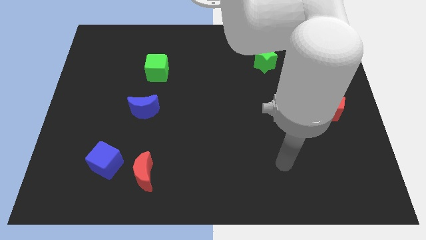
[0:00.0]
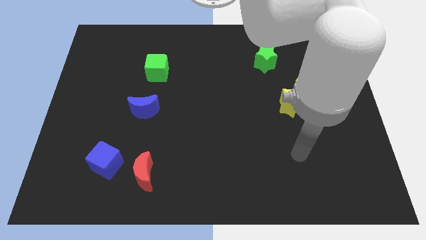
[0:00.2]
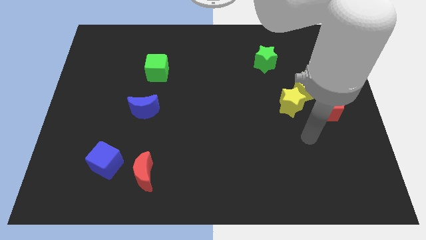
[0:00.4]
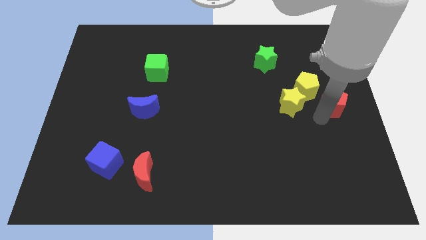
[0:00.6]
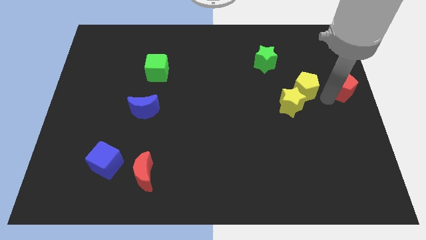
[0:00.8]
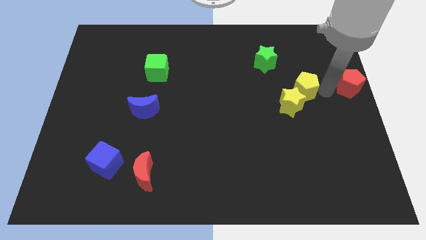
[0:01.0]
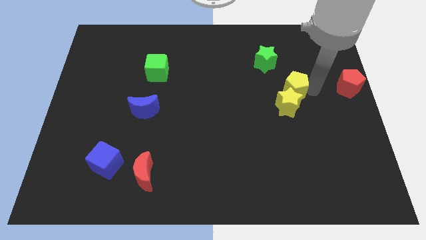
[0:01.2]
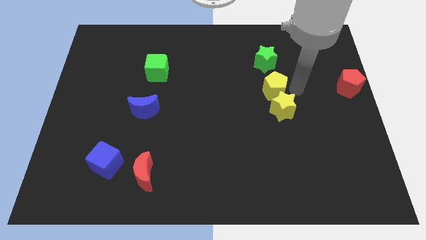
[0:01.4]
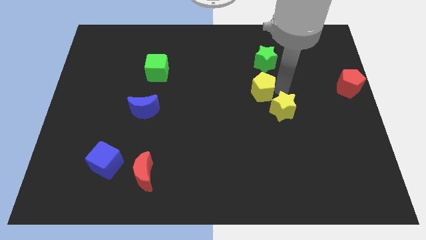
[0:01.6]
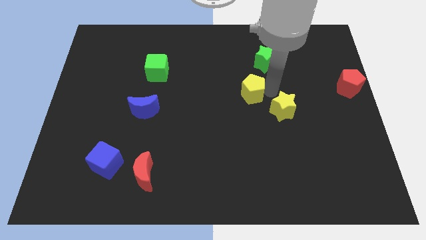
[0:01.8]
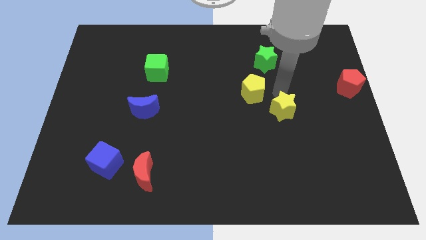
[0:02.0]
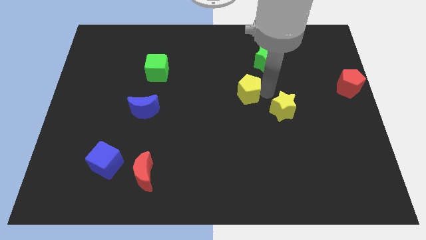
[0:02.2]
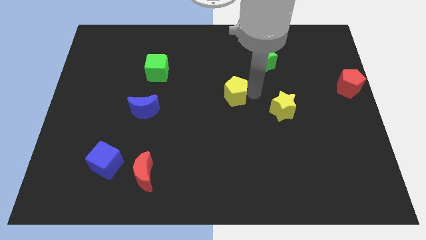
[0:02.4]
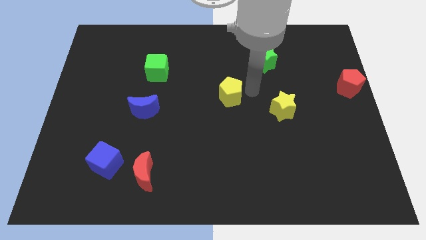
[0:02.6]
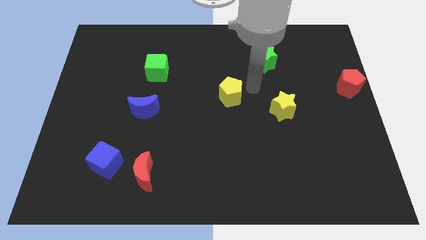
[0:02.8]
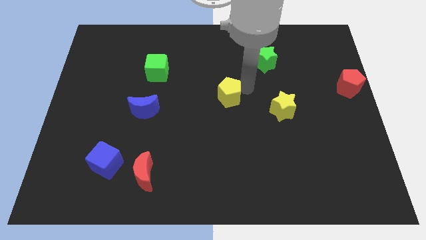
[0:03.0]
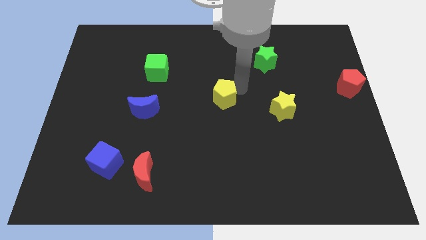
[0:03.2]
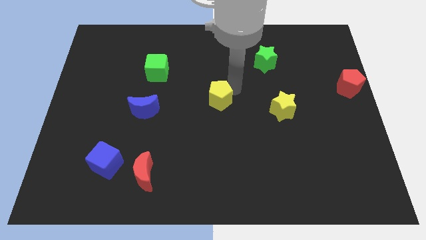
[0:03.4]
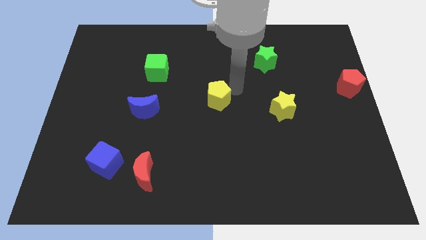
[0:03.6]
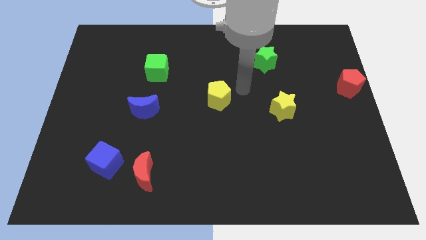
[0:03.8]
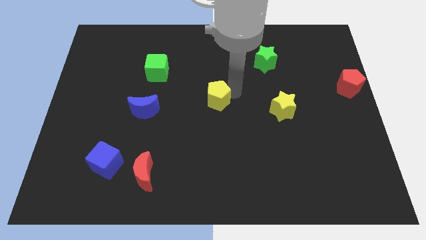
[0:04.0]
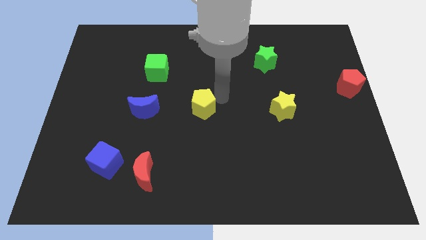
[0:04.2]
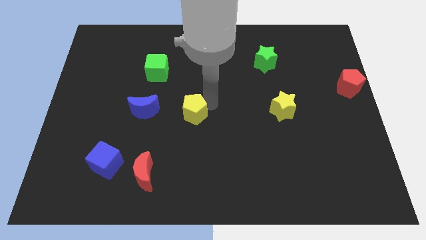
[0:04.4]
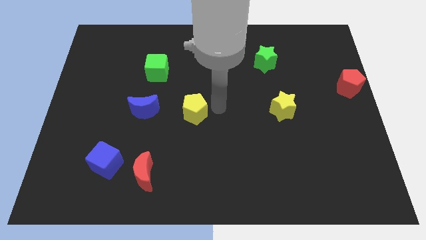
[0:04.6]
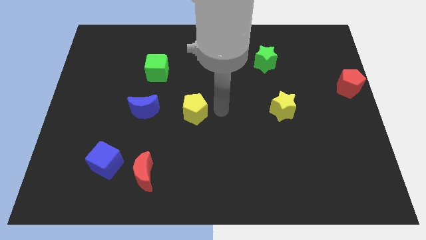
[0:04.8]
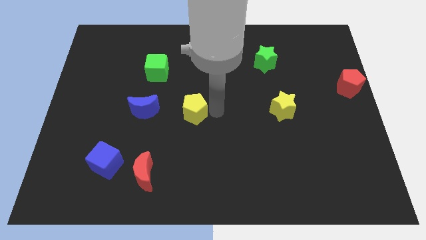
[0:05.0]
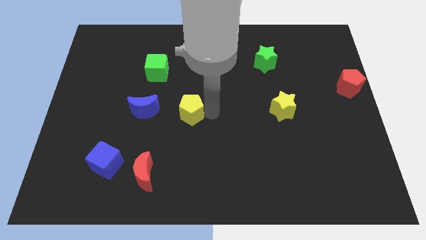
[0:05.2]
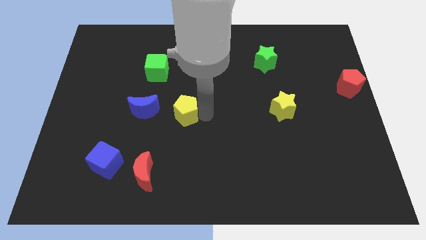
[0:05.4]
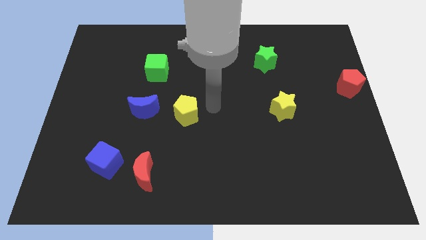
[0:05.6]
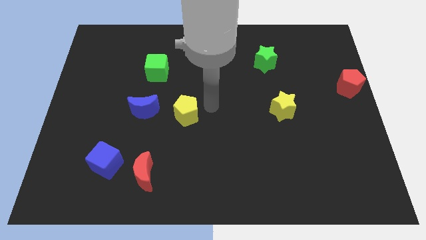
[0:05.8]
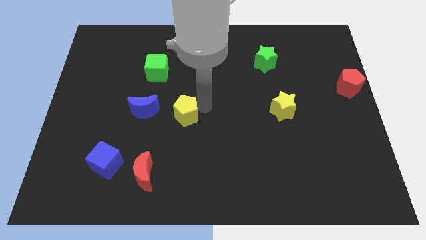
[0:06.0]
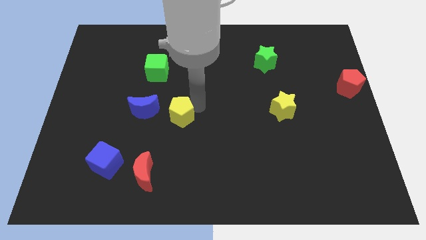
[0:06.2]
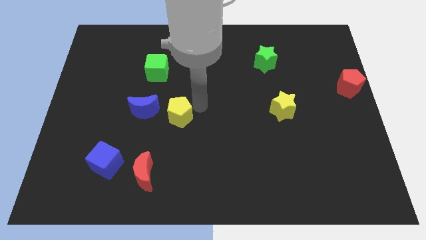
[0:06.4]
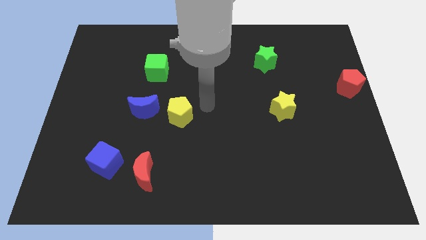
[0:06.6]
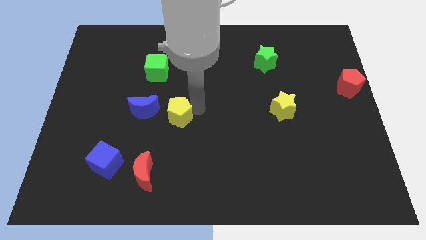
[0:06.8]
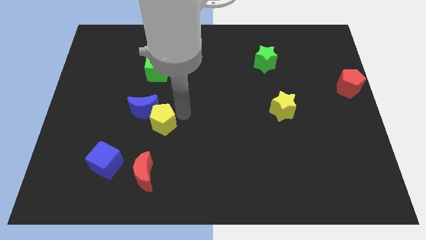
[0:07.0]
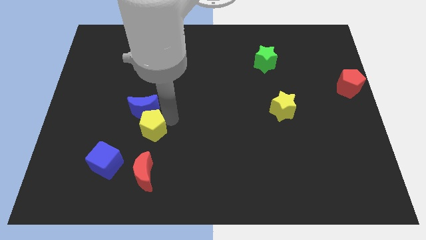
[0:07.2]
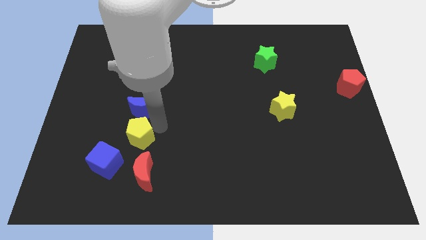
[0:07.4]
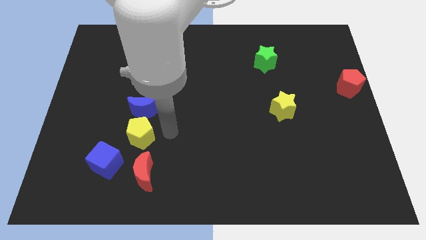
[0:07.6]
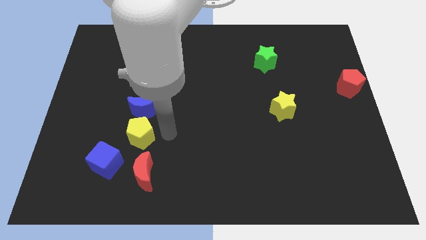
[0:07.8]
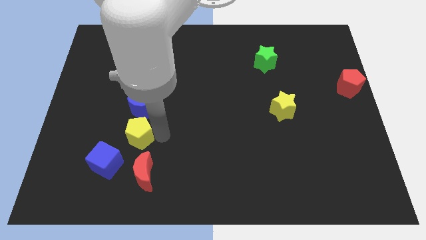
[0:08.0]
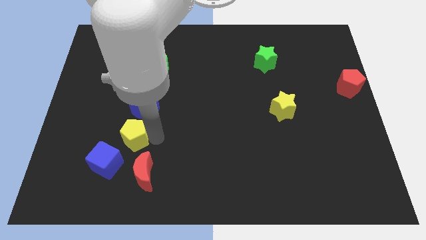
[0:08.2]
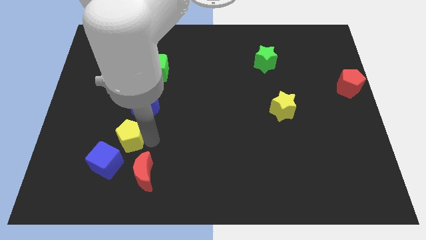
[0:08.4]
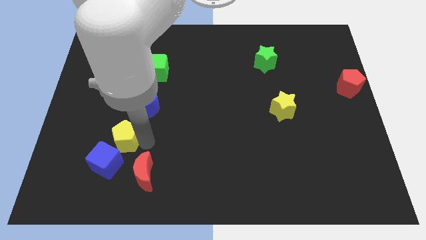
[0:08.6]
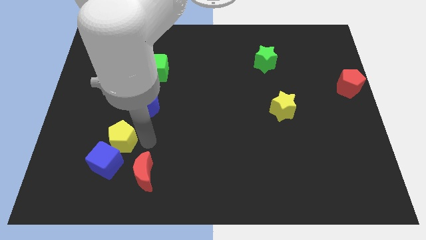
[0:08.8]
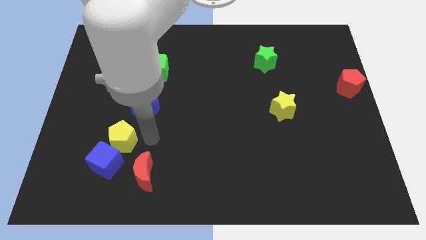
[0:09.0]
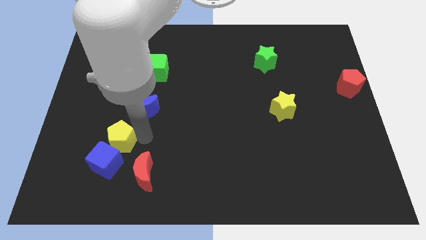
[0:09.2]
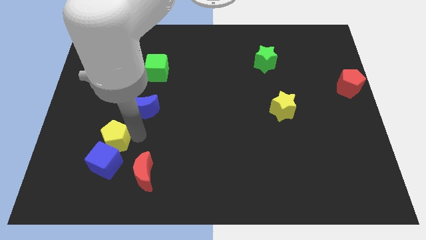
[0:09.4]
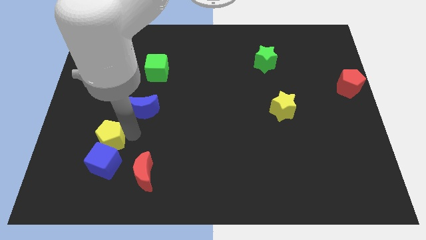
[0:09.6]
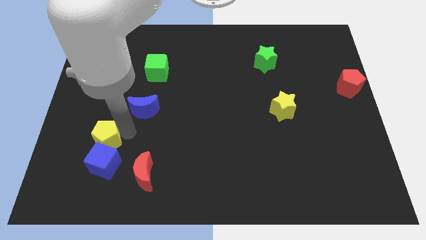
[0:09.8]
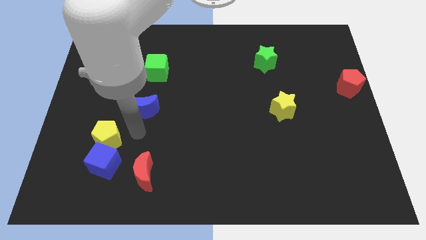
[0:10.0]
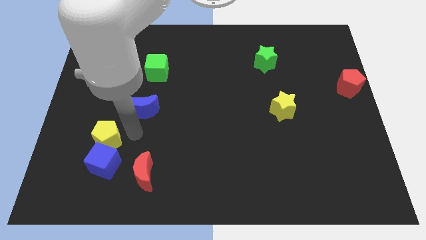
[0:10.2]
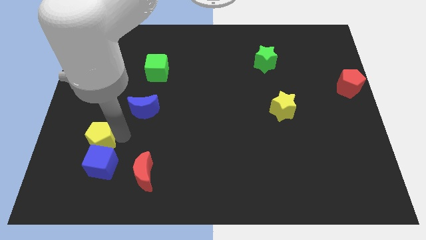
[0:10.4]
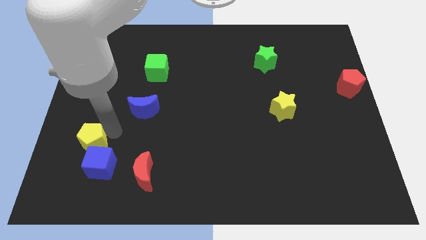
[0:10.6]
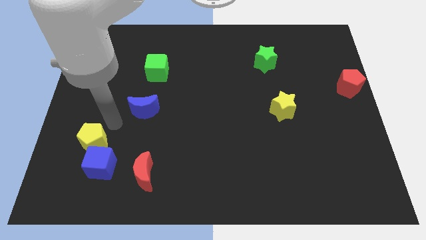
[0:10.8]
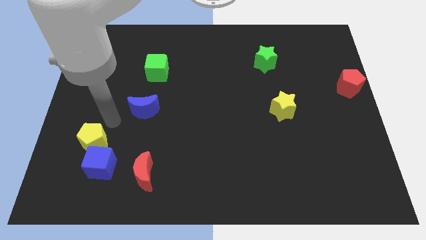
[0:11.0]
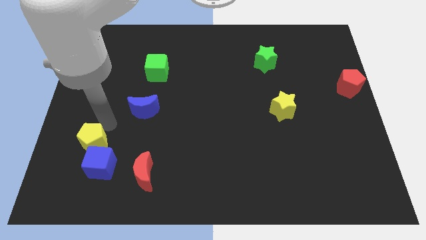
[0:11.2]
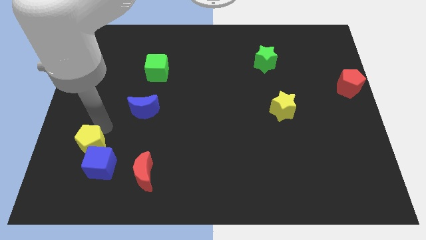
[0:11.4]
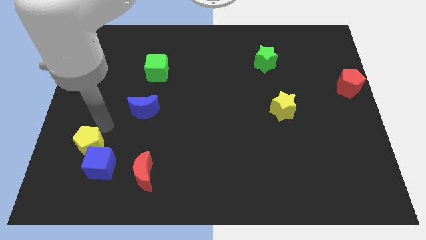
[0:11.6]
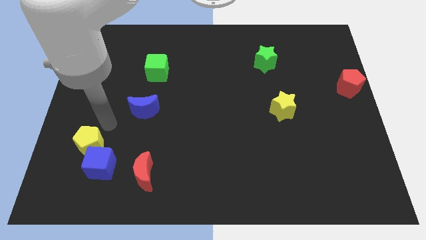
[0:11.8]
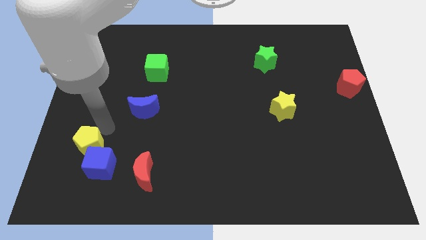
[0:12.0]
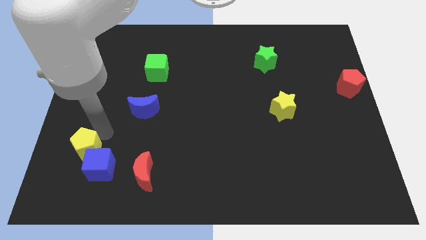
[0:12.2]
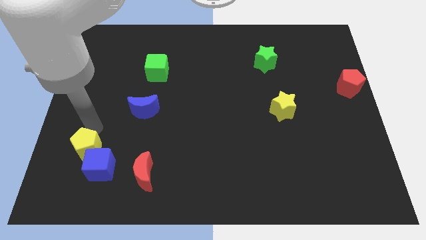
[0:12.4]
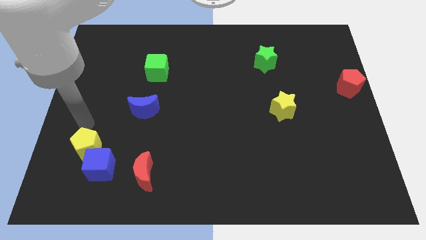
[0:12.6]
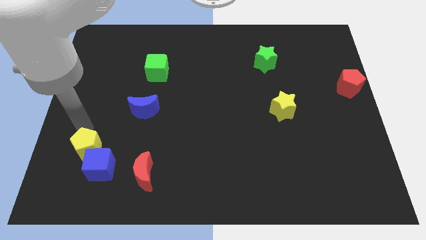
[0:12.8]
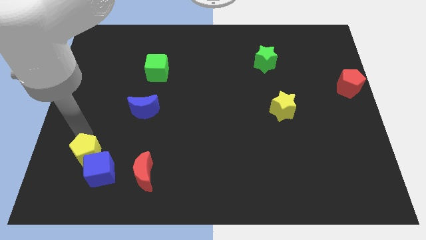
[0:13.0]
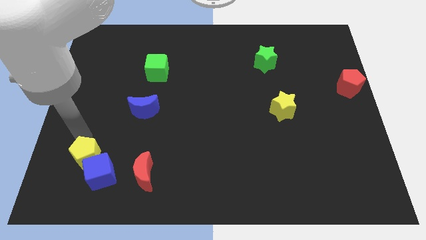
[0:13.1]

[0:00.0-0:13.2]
push the yellow pentagon to the left side of the red moon
